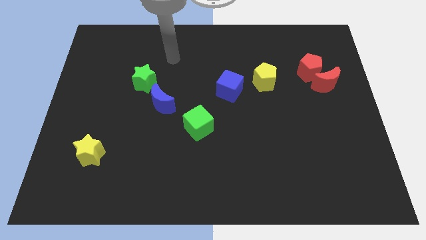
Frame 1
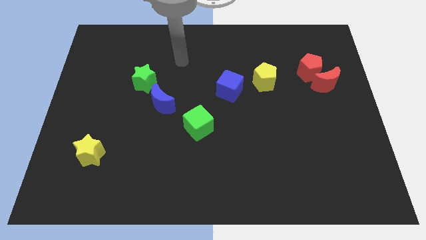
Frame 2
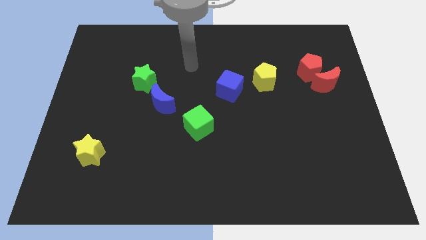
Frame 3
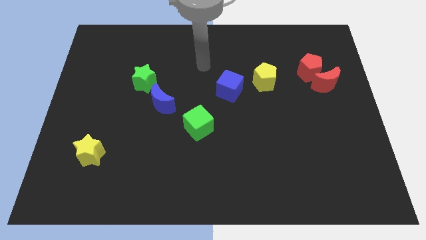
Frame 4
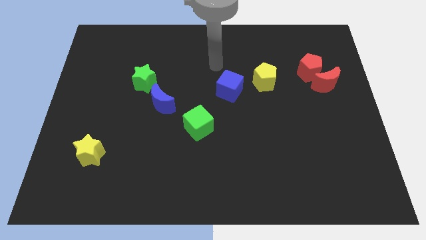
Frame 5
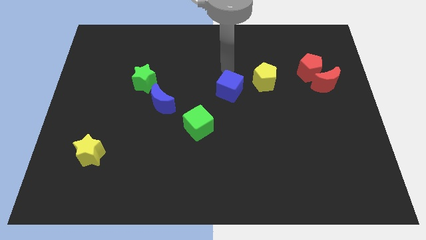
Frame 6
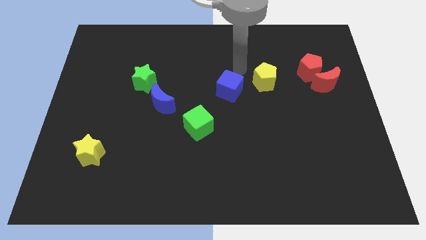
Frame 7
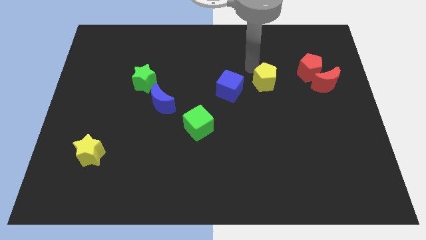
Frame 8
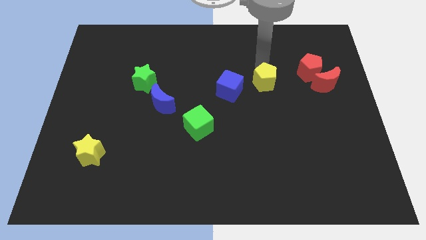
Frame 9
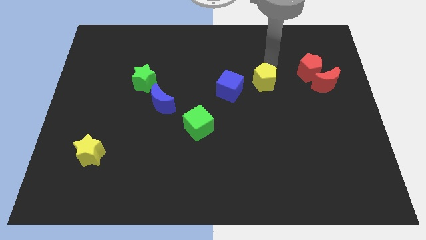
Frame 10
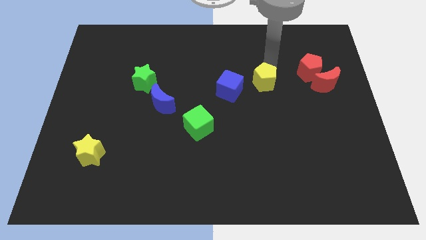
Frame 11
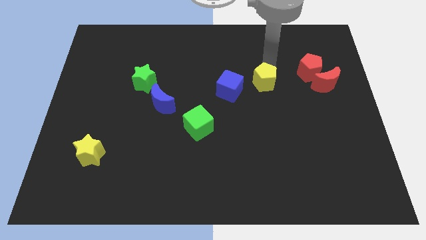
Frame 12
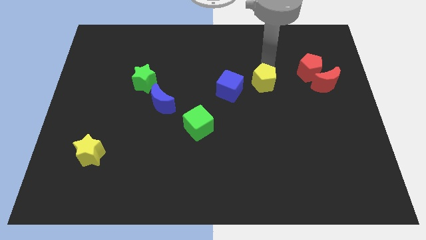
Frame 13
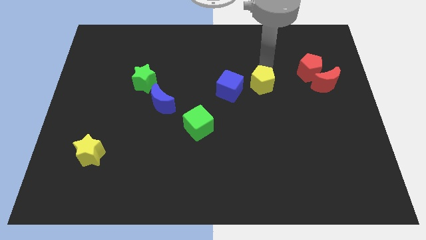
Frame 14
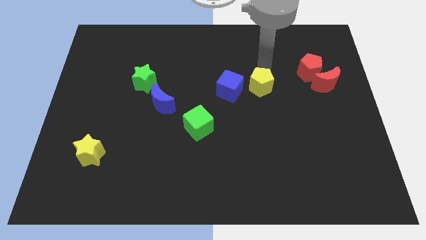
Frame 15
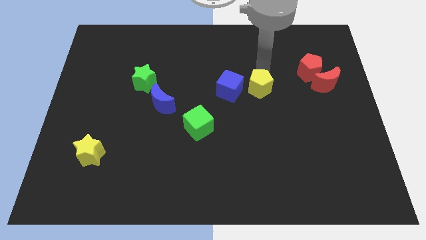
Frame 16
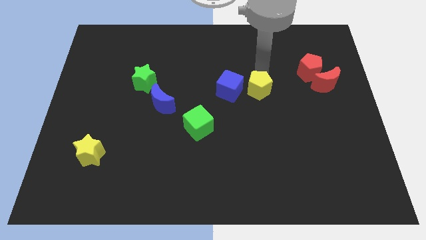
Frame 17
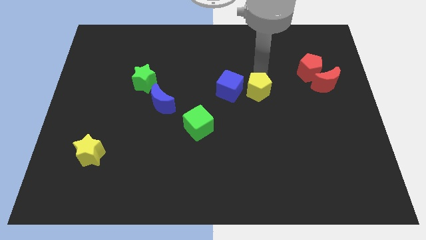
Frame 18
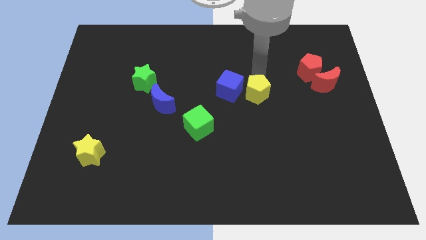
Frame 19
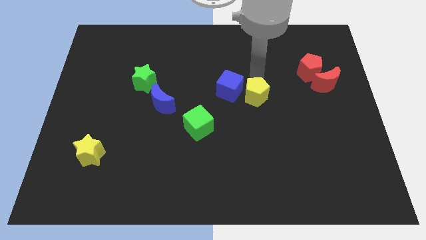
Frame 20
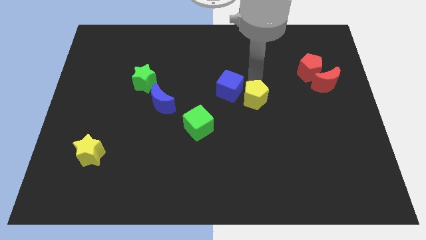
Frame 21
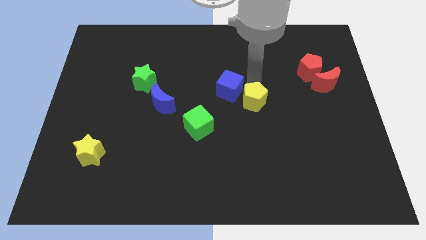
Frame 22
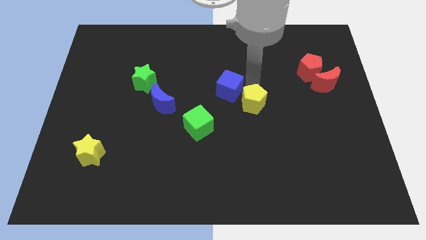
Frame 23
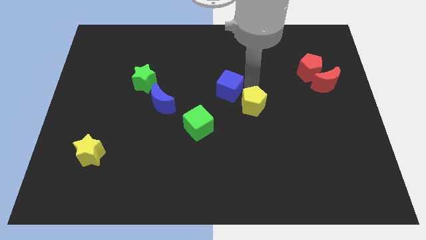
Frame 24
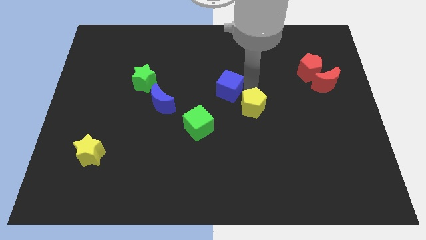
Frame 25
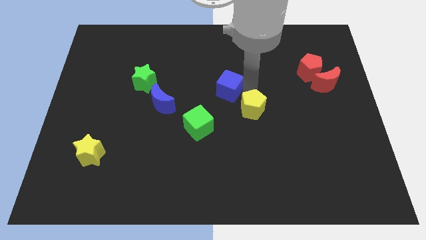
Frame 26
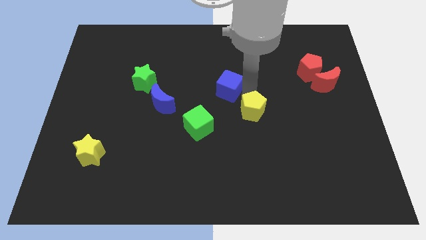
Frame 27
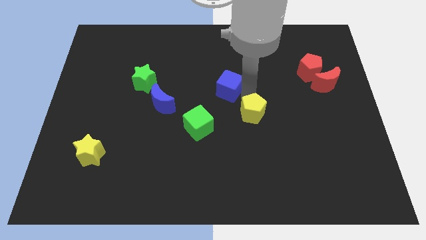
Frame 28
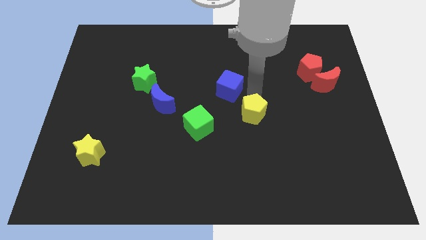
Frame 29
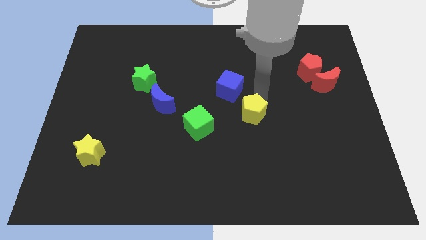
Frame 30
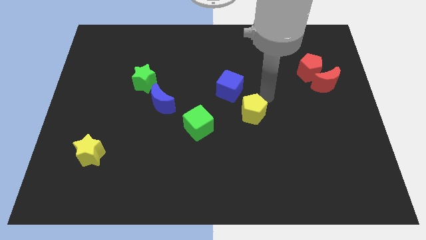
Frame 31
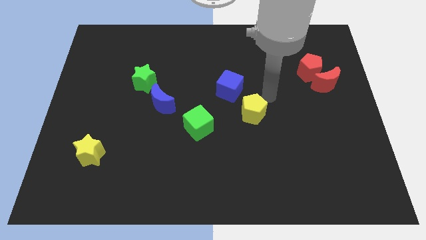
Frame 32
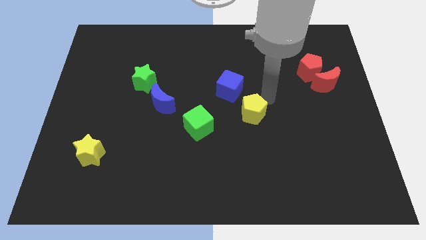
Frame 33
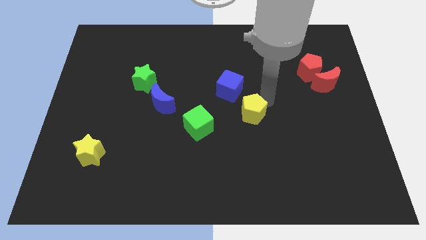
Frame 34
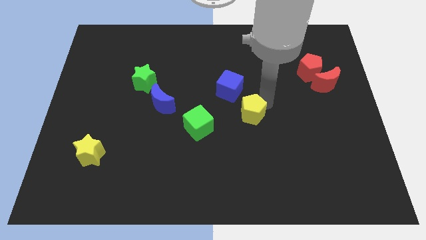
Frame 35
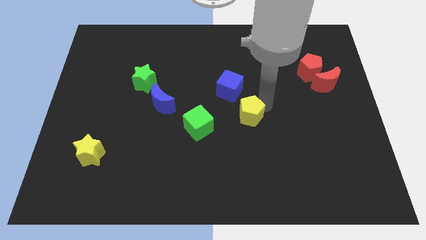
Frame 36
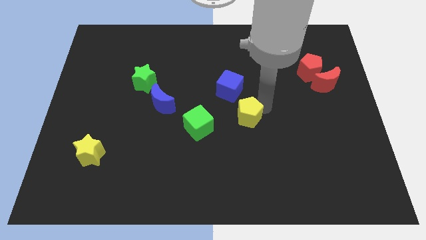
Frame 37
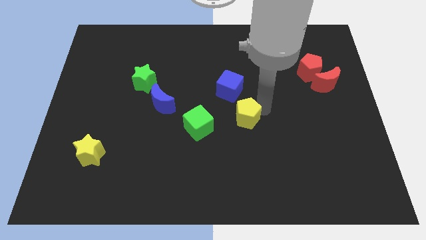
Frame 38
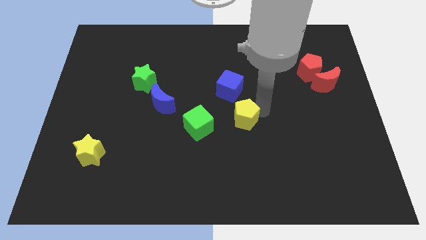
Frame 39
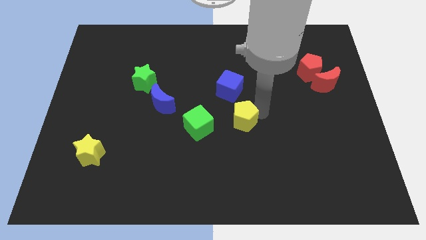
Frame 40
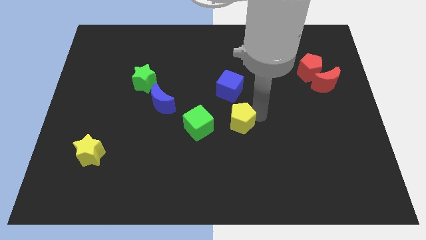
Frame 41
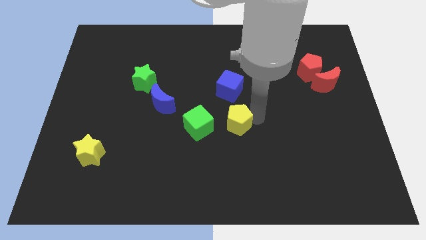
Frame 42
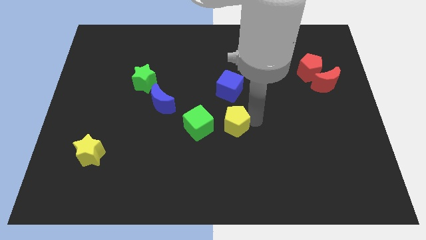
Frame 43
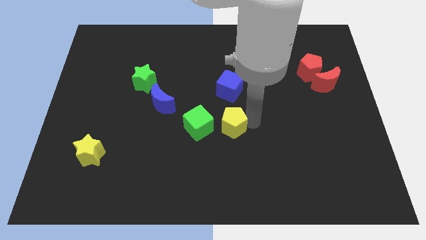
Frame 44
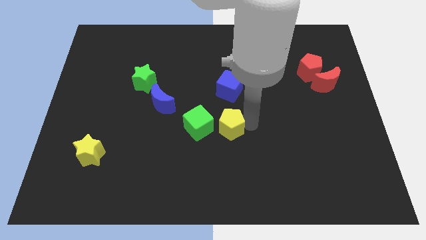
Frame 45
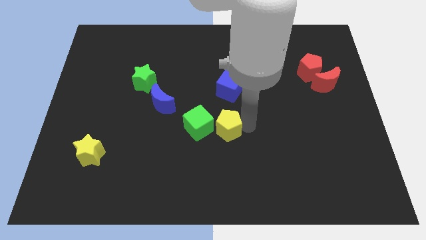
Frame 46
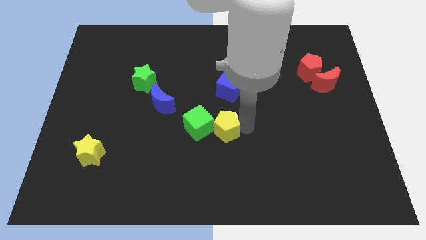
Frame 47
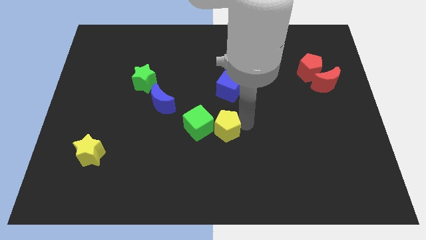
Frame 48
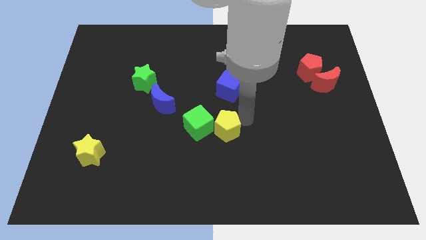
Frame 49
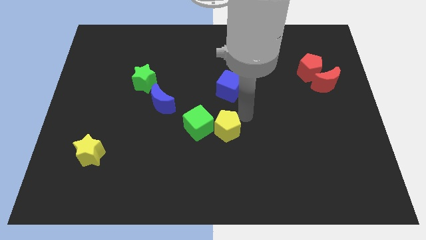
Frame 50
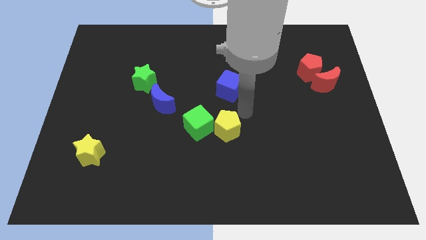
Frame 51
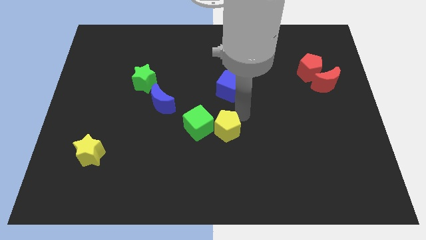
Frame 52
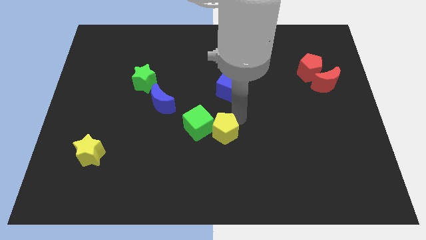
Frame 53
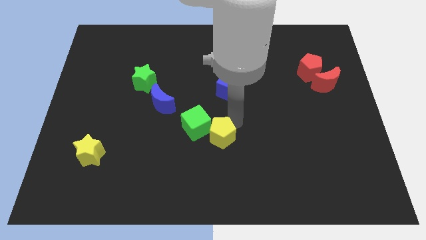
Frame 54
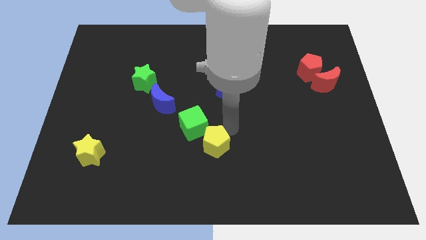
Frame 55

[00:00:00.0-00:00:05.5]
push the yellow pentagon down and then left

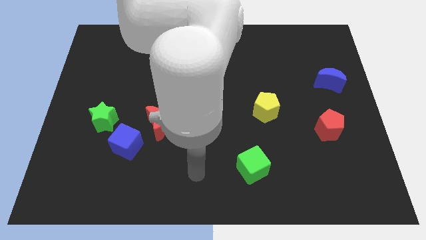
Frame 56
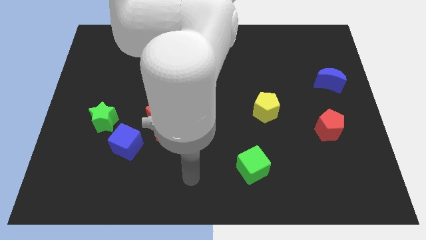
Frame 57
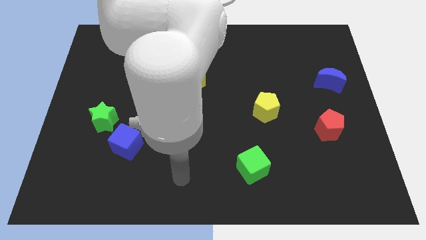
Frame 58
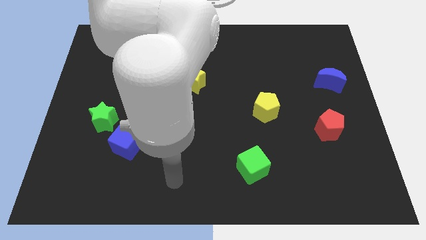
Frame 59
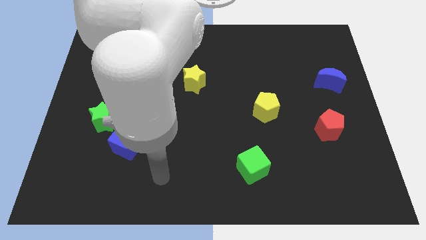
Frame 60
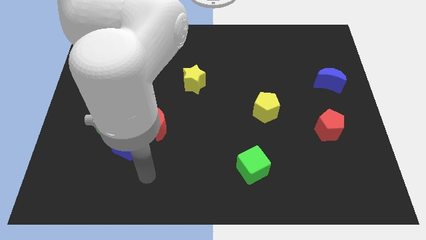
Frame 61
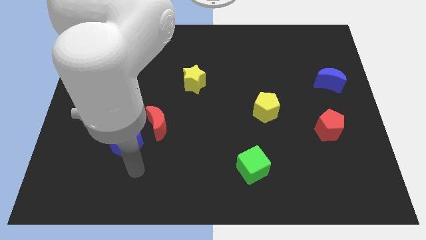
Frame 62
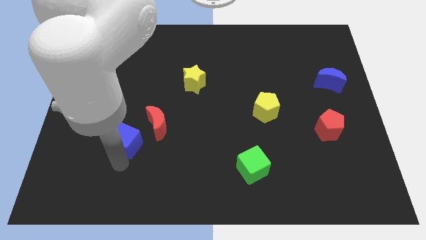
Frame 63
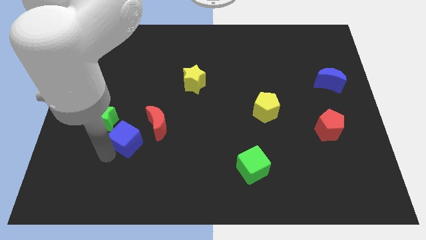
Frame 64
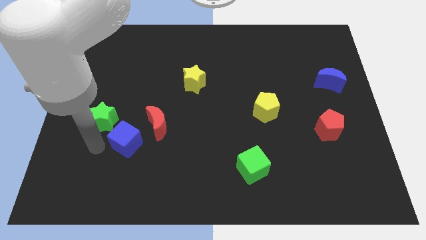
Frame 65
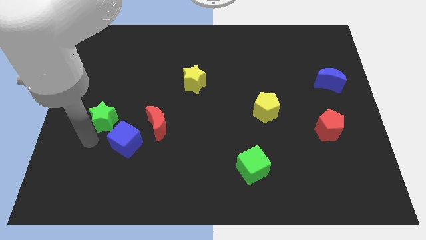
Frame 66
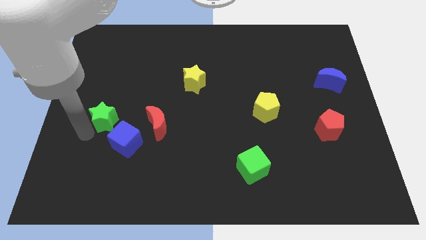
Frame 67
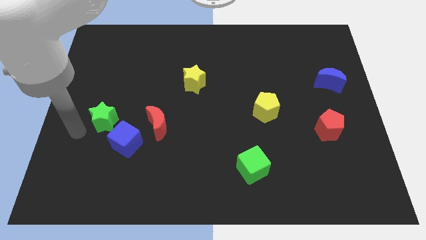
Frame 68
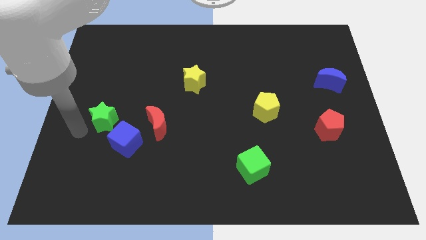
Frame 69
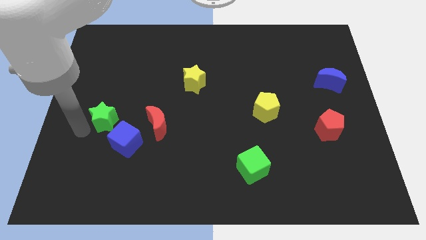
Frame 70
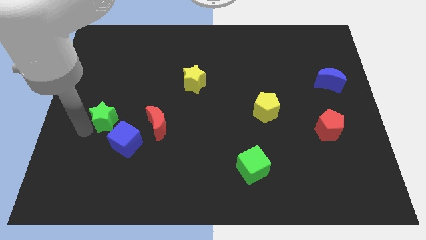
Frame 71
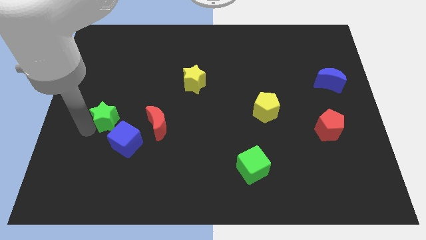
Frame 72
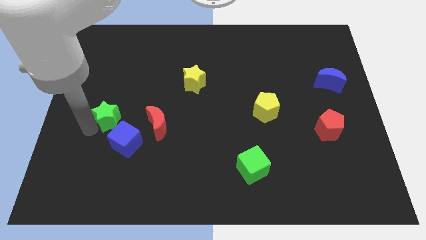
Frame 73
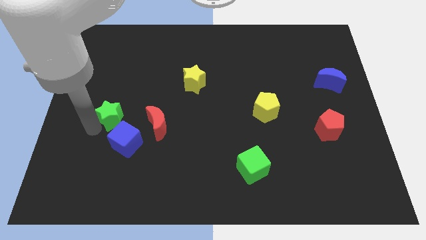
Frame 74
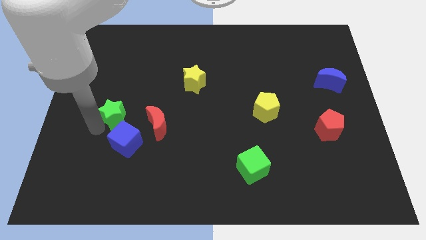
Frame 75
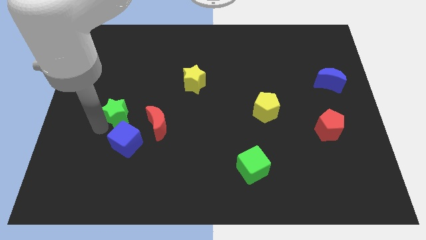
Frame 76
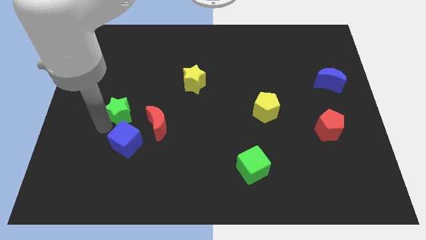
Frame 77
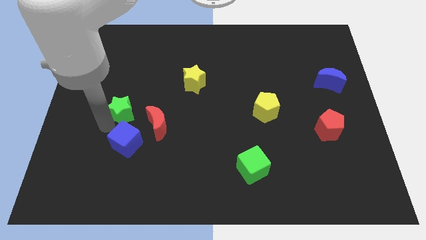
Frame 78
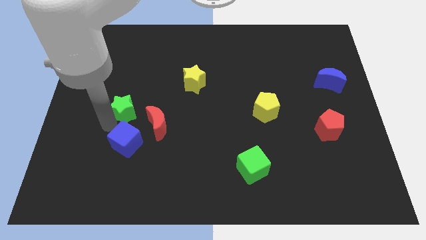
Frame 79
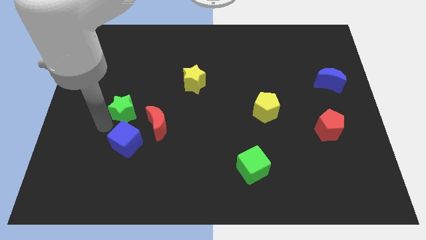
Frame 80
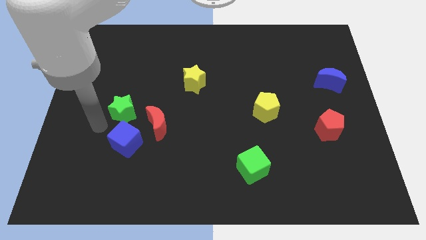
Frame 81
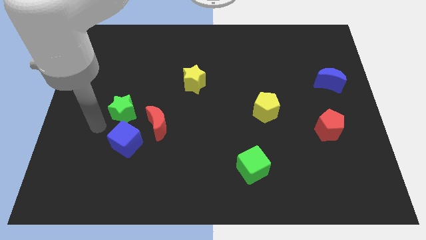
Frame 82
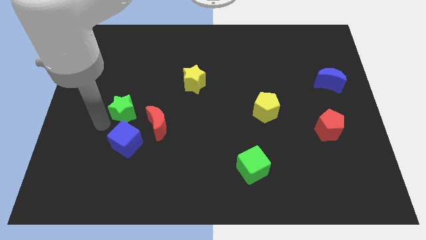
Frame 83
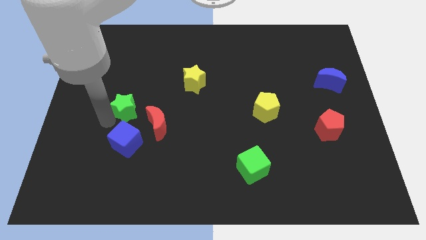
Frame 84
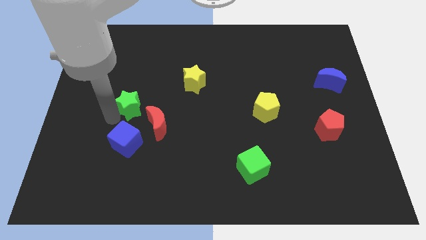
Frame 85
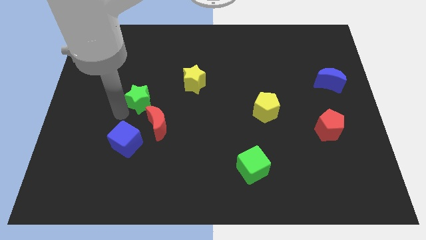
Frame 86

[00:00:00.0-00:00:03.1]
slightly push the green star upwards and right diagonally
